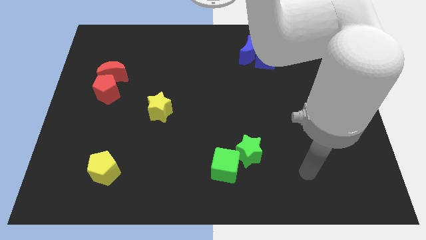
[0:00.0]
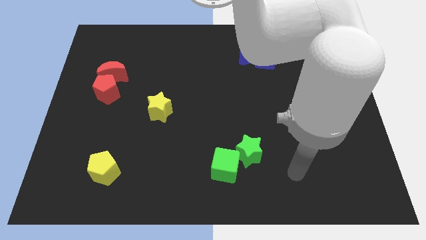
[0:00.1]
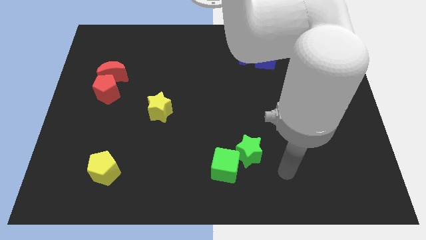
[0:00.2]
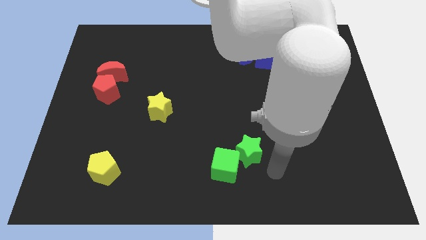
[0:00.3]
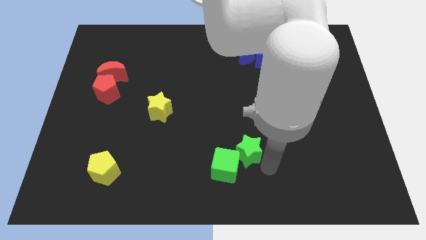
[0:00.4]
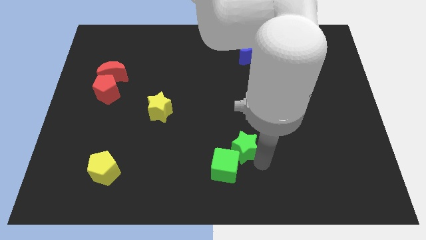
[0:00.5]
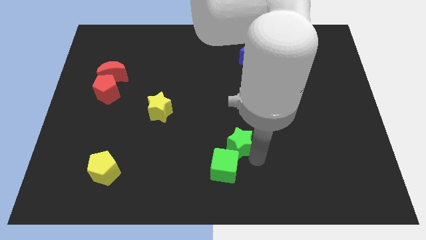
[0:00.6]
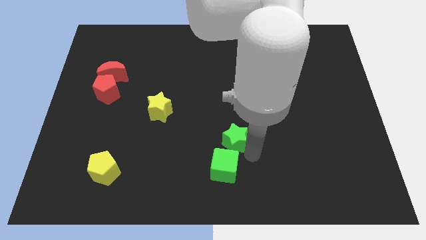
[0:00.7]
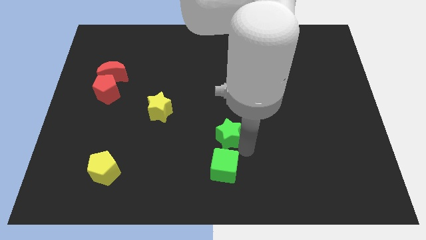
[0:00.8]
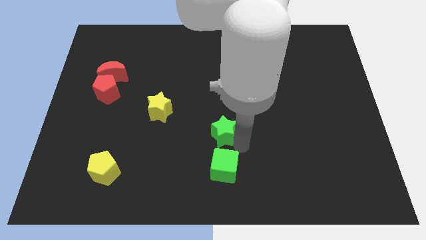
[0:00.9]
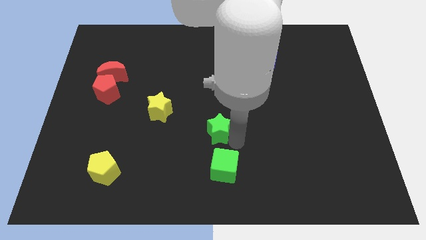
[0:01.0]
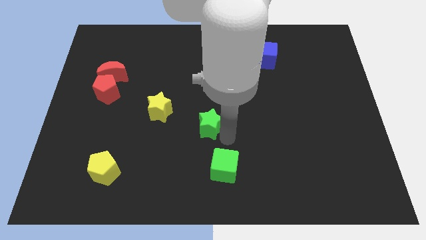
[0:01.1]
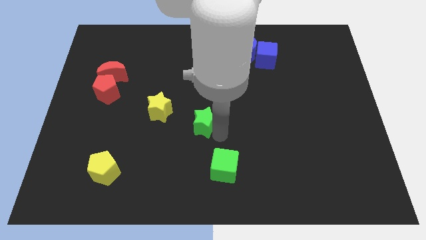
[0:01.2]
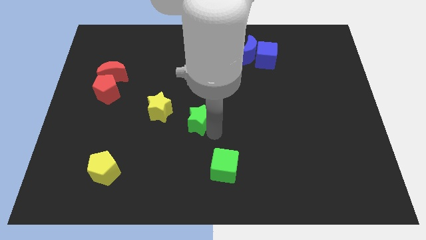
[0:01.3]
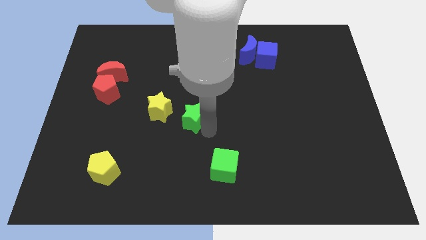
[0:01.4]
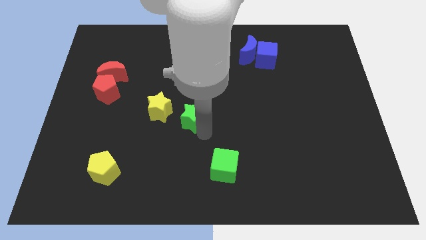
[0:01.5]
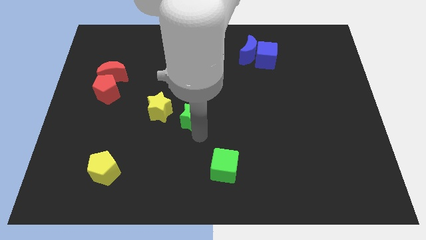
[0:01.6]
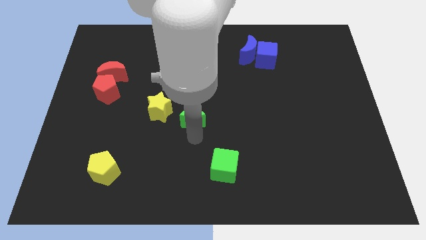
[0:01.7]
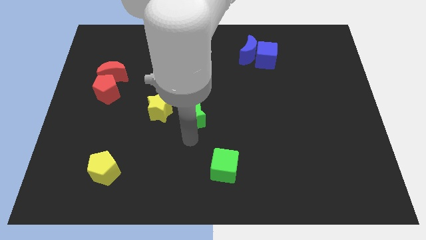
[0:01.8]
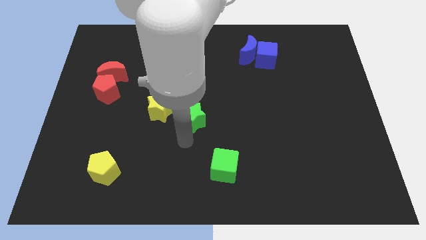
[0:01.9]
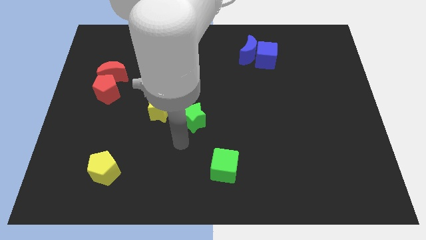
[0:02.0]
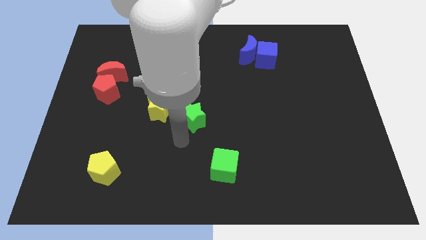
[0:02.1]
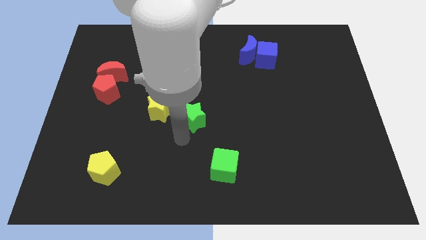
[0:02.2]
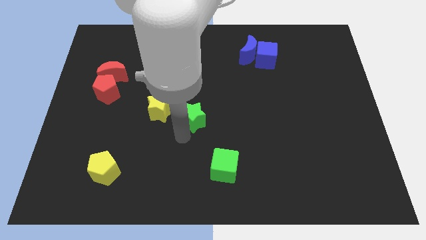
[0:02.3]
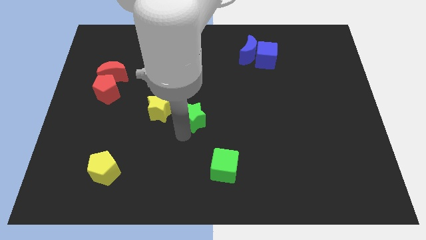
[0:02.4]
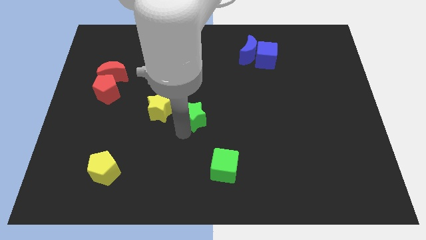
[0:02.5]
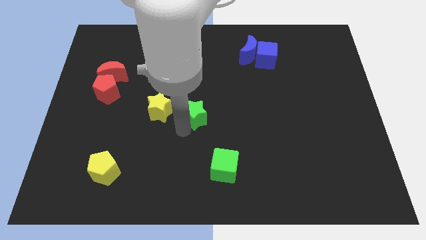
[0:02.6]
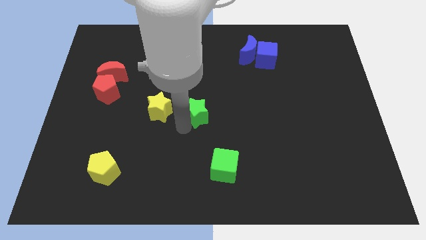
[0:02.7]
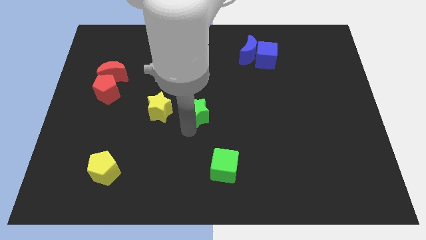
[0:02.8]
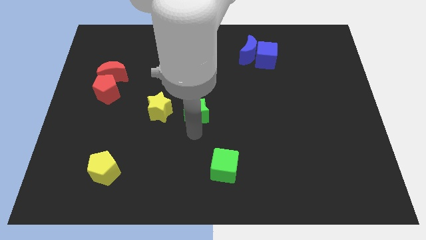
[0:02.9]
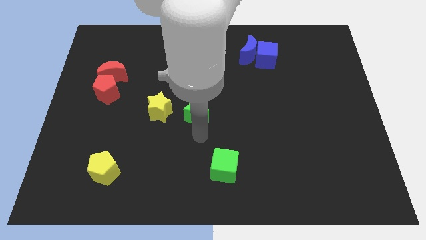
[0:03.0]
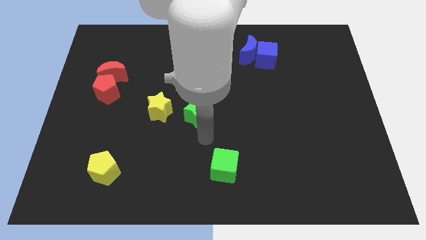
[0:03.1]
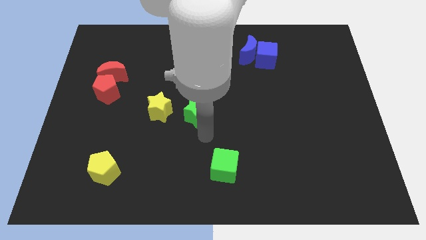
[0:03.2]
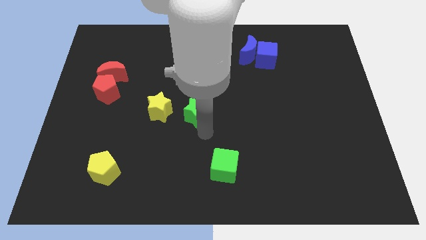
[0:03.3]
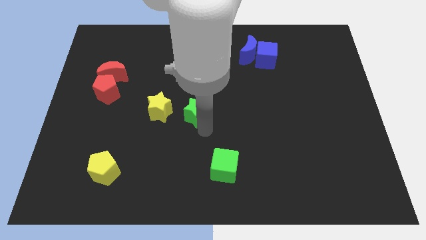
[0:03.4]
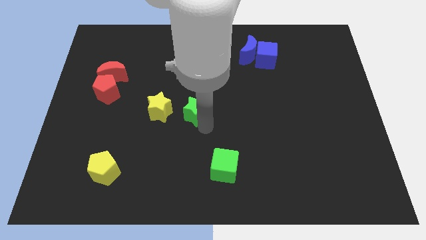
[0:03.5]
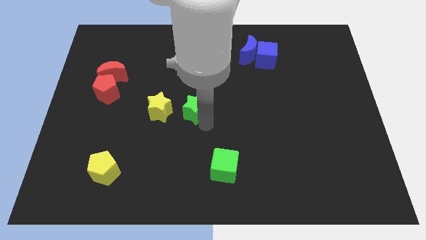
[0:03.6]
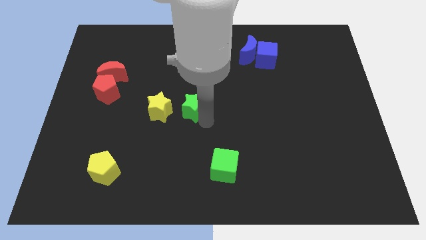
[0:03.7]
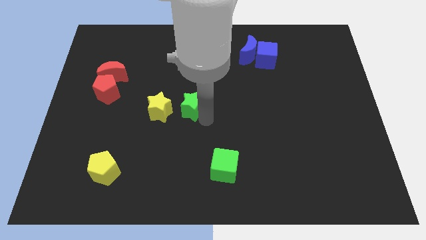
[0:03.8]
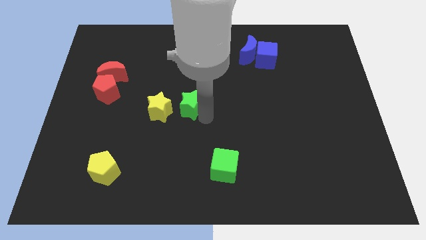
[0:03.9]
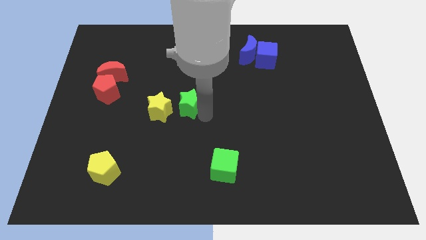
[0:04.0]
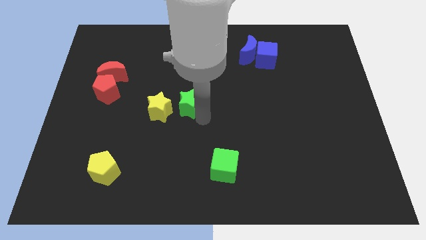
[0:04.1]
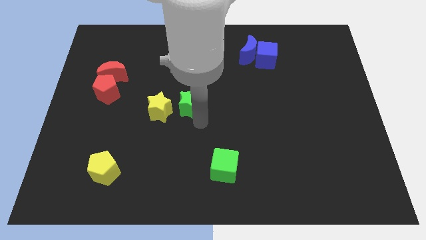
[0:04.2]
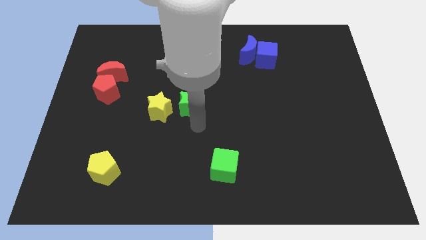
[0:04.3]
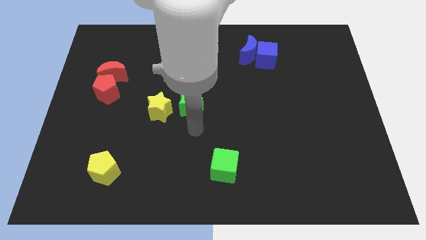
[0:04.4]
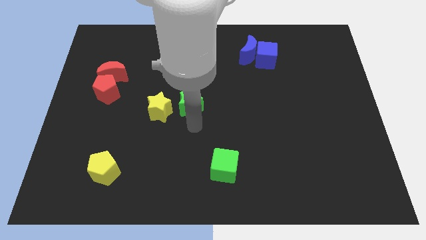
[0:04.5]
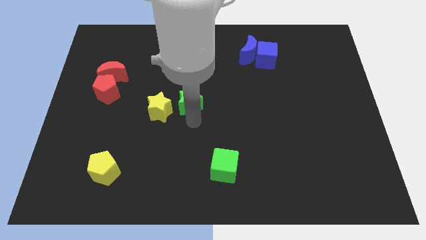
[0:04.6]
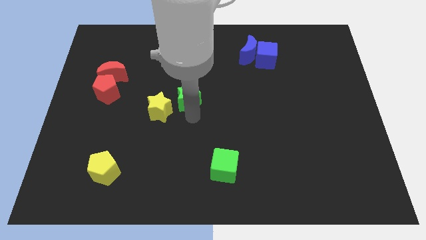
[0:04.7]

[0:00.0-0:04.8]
move the green star upwards and then left

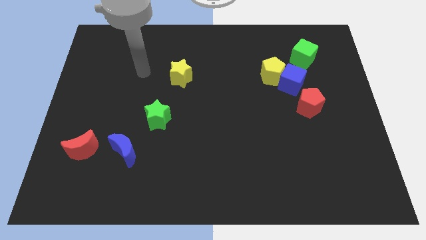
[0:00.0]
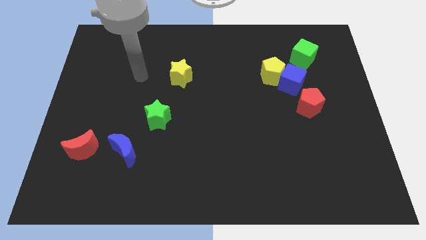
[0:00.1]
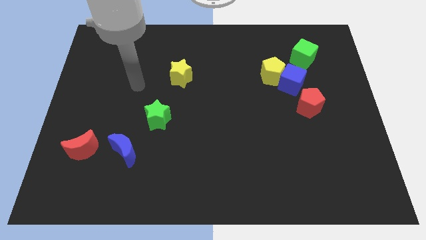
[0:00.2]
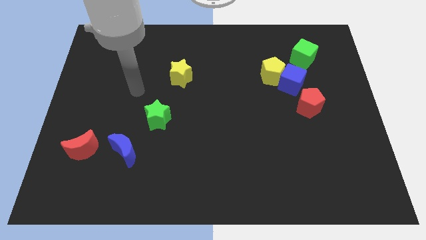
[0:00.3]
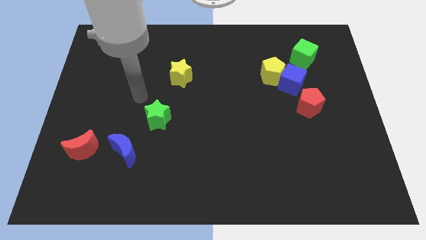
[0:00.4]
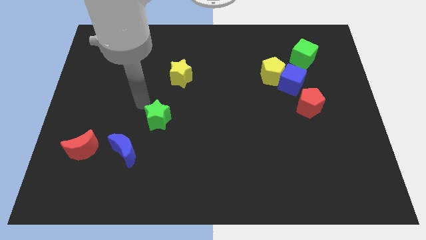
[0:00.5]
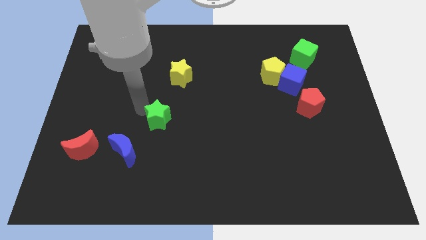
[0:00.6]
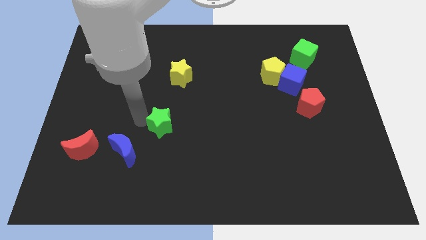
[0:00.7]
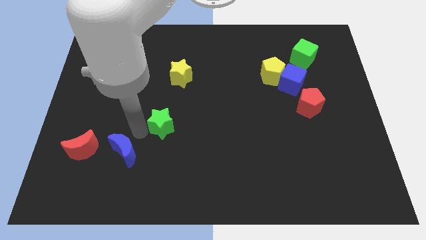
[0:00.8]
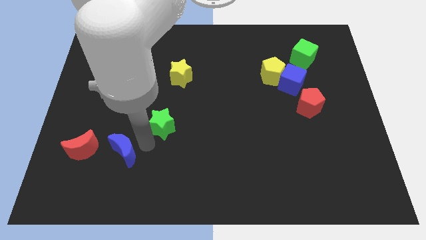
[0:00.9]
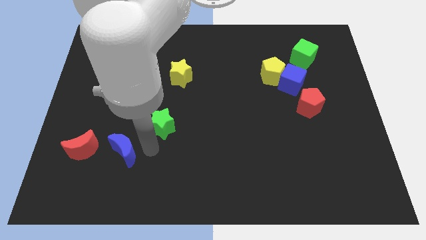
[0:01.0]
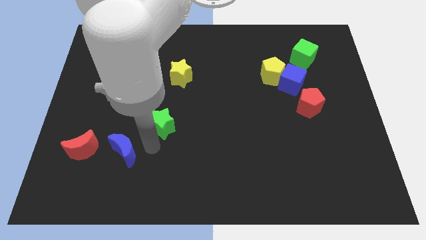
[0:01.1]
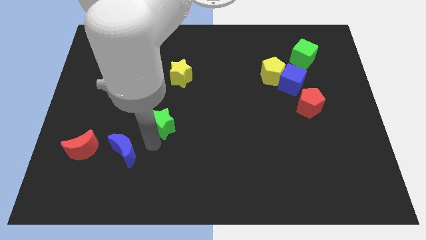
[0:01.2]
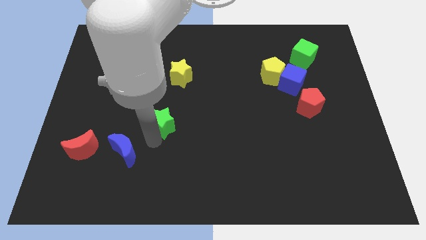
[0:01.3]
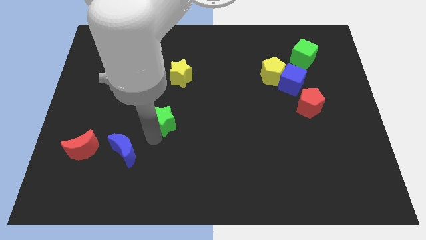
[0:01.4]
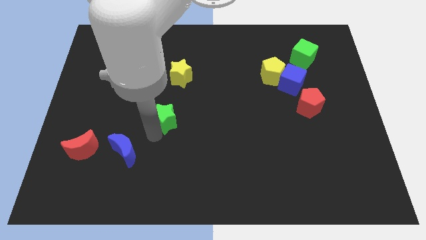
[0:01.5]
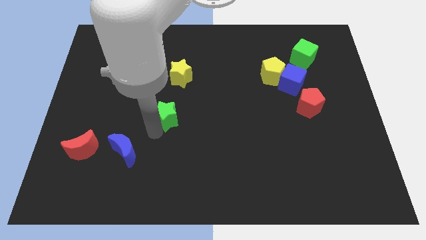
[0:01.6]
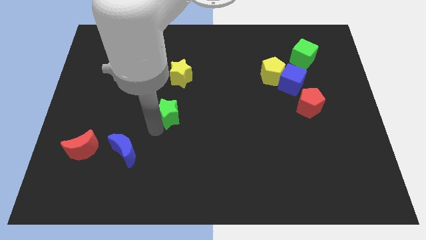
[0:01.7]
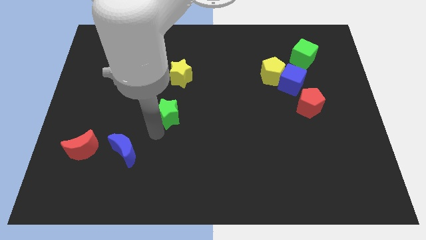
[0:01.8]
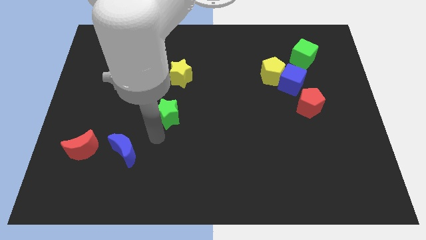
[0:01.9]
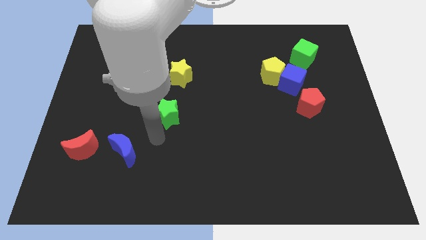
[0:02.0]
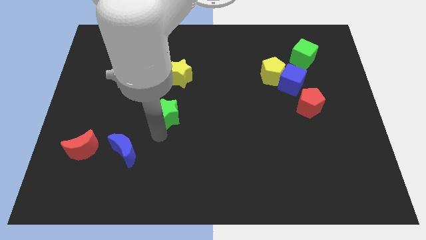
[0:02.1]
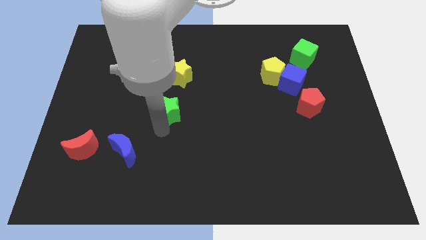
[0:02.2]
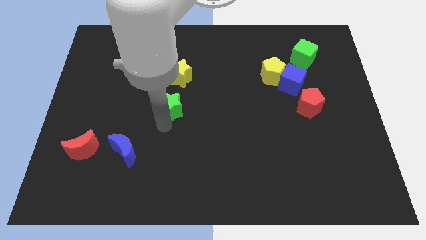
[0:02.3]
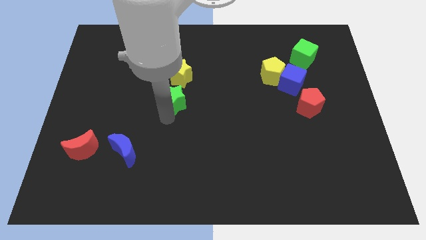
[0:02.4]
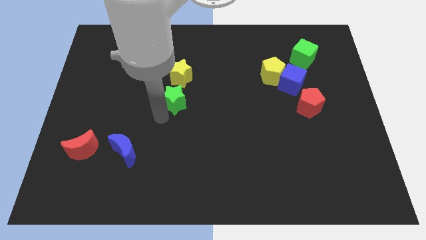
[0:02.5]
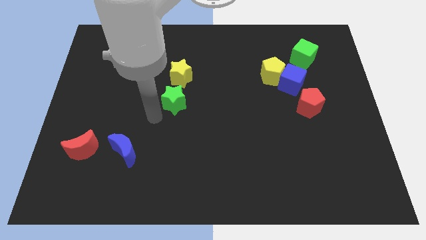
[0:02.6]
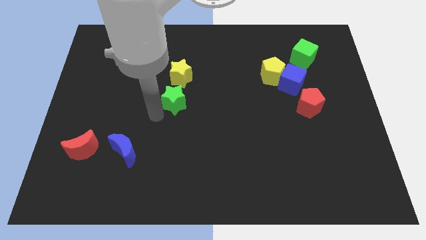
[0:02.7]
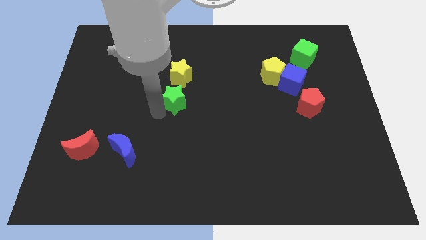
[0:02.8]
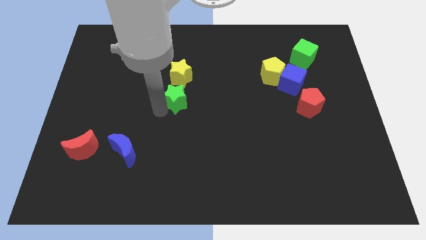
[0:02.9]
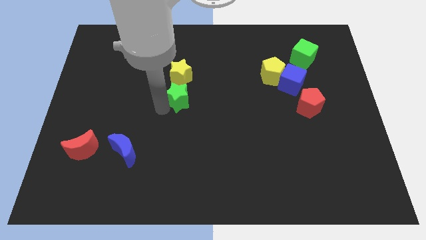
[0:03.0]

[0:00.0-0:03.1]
slightly push the green star upwards and right diagonally

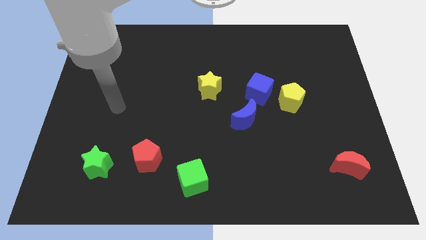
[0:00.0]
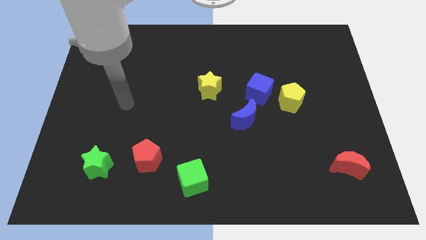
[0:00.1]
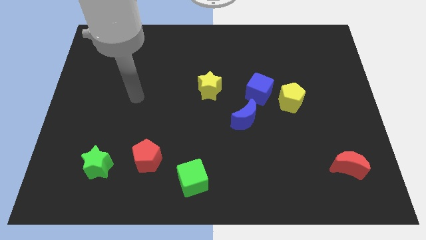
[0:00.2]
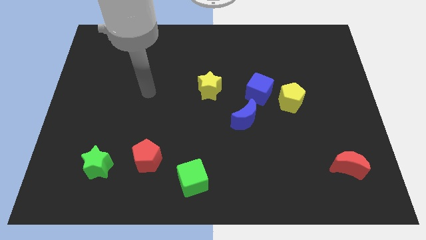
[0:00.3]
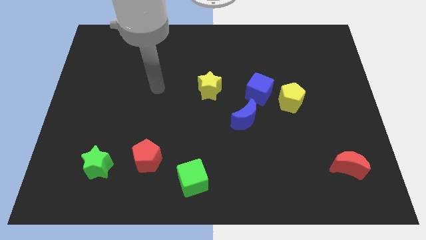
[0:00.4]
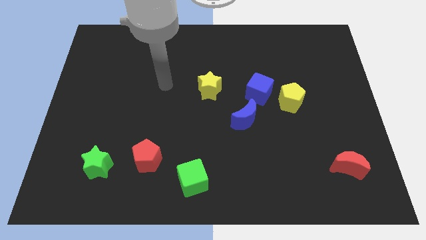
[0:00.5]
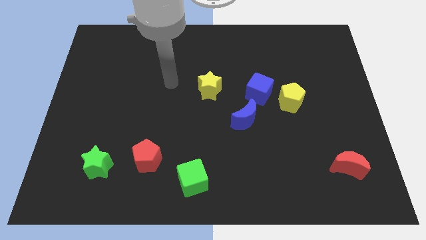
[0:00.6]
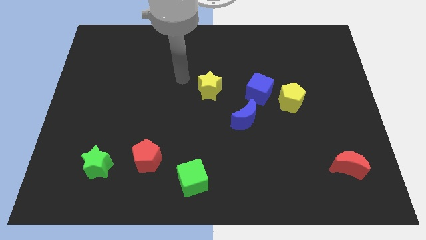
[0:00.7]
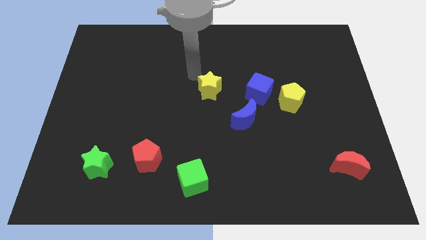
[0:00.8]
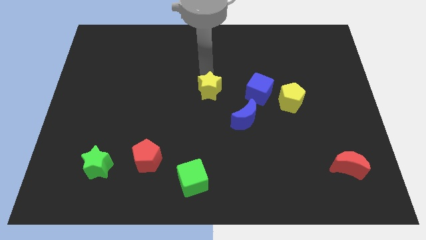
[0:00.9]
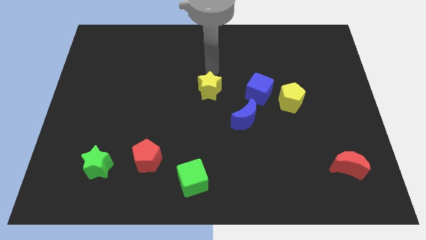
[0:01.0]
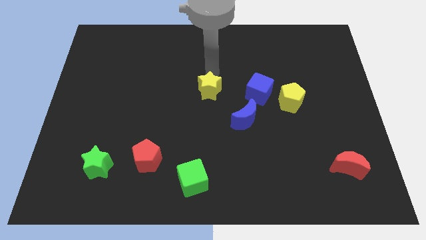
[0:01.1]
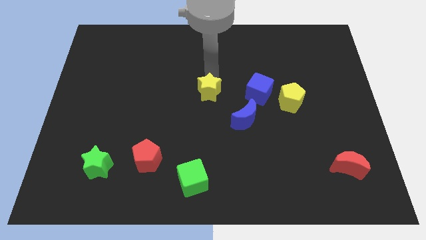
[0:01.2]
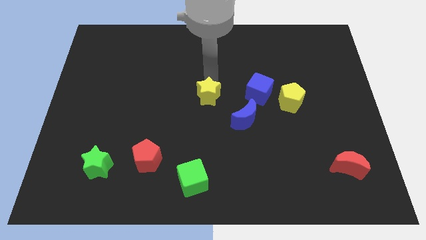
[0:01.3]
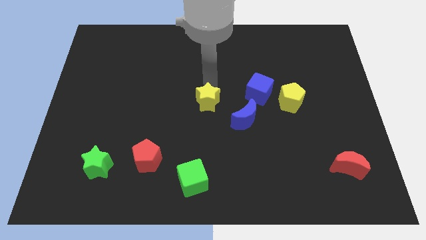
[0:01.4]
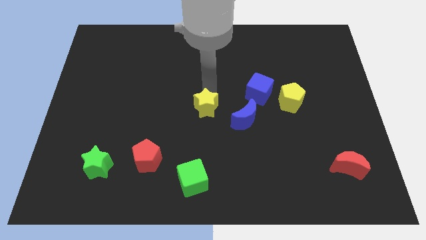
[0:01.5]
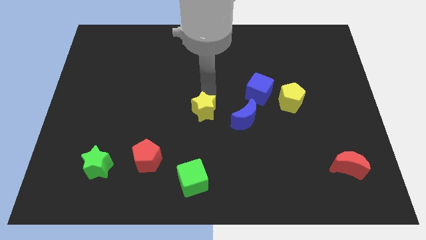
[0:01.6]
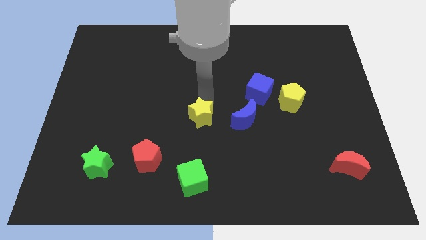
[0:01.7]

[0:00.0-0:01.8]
slightly move the yellow star downwards
